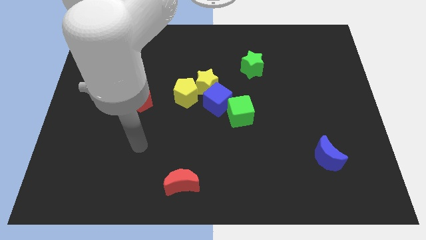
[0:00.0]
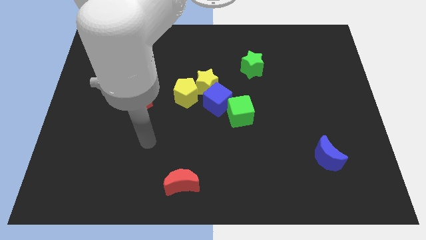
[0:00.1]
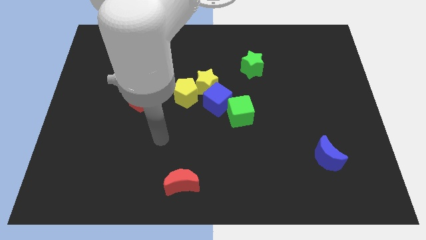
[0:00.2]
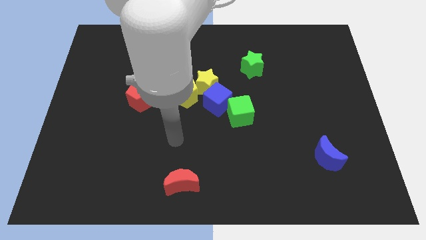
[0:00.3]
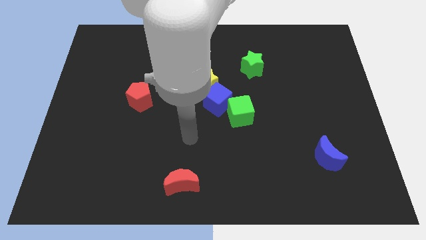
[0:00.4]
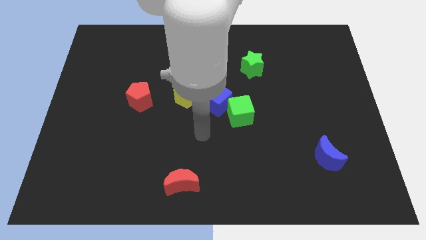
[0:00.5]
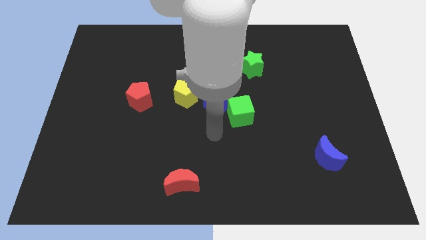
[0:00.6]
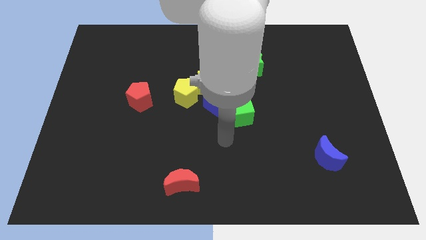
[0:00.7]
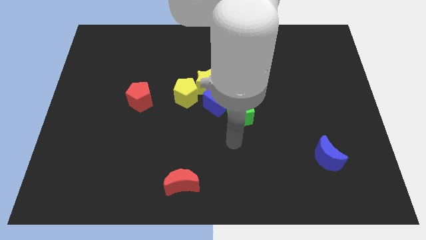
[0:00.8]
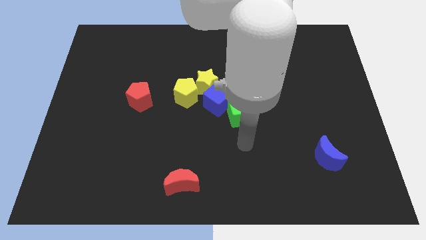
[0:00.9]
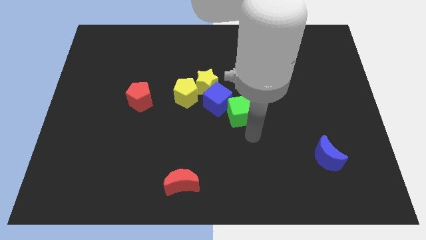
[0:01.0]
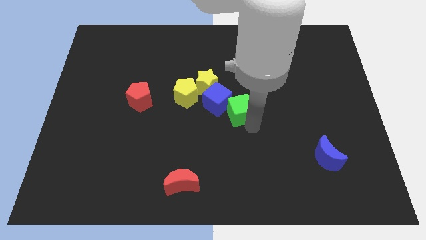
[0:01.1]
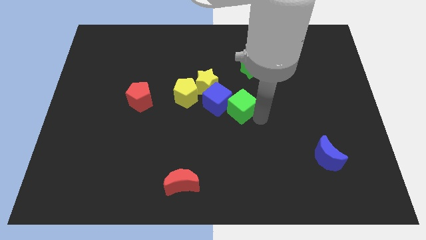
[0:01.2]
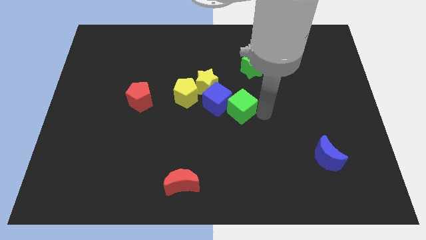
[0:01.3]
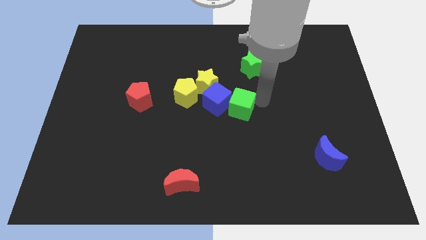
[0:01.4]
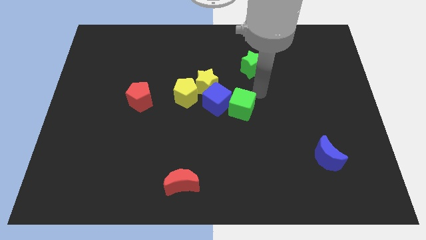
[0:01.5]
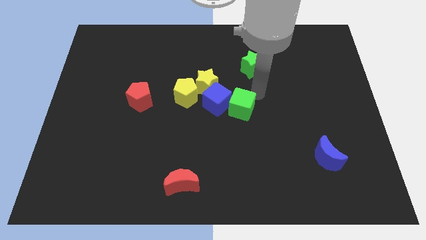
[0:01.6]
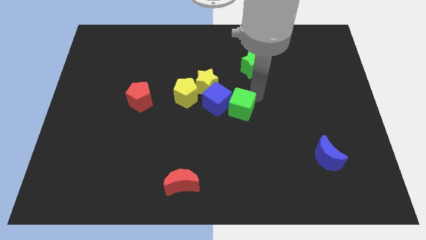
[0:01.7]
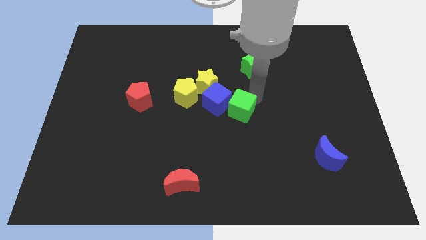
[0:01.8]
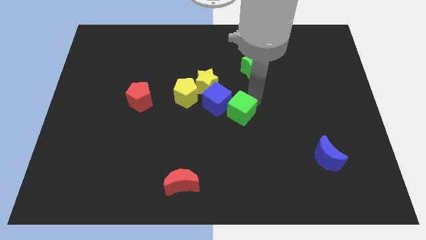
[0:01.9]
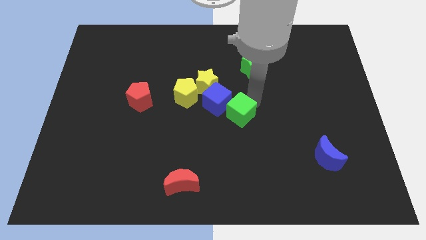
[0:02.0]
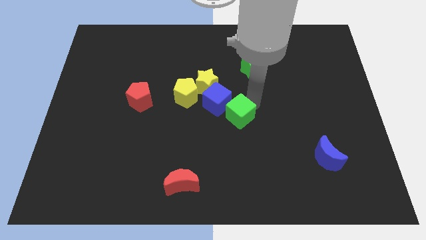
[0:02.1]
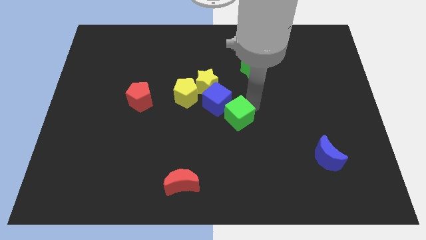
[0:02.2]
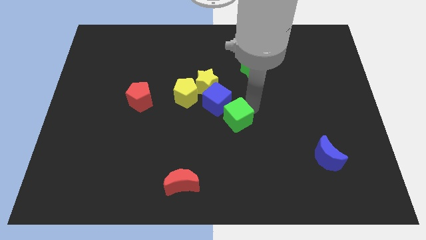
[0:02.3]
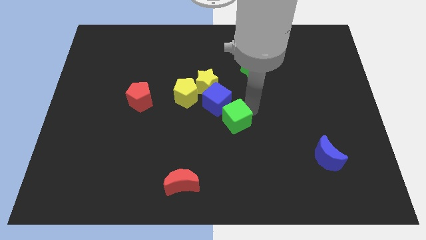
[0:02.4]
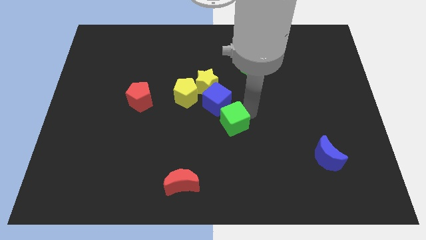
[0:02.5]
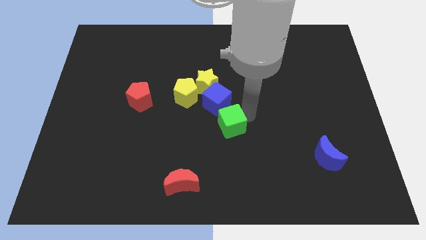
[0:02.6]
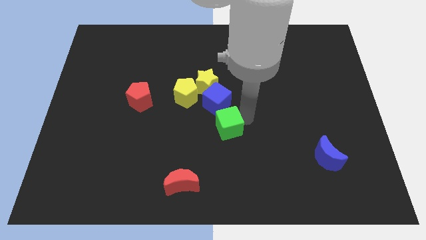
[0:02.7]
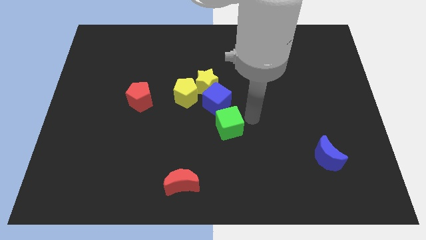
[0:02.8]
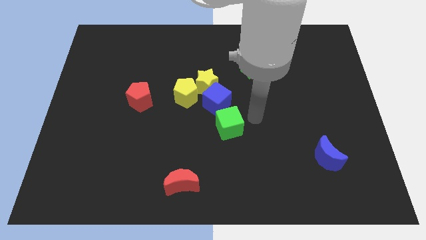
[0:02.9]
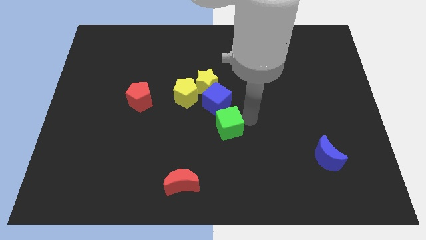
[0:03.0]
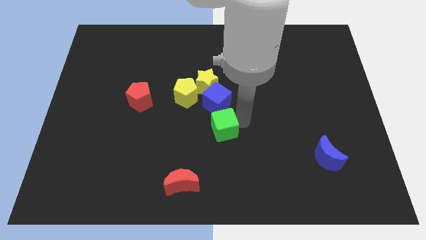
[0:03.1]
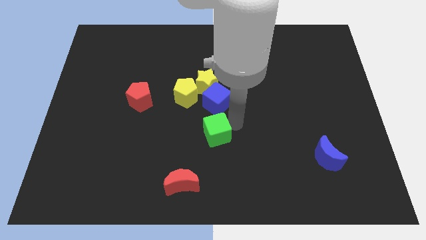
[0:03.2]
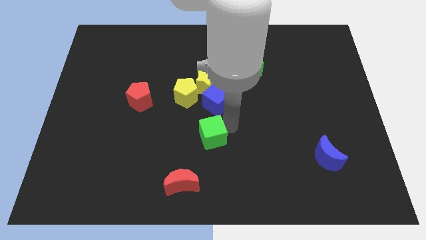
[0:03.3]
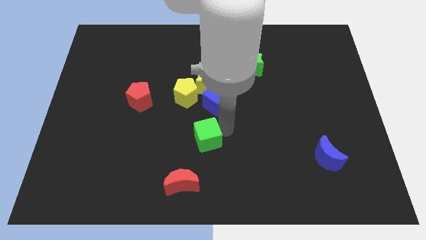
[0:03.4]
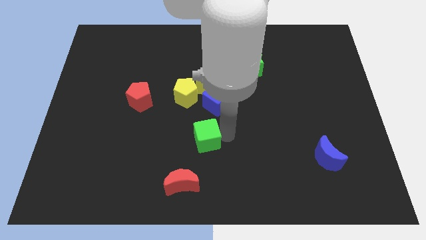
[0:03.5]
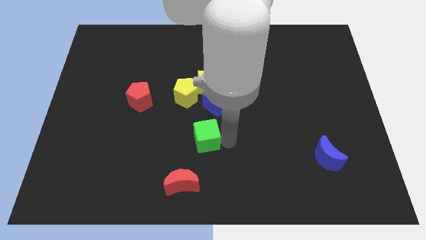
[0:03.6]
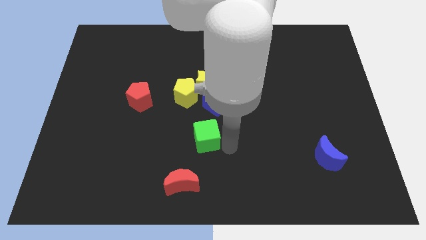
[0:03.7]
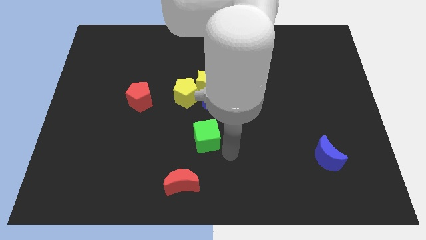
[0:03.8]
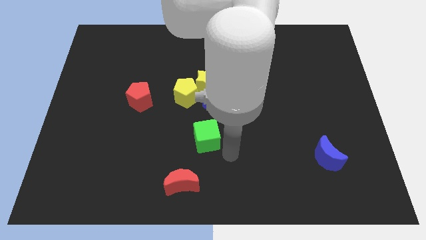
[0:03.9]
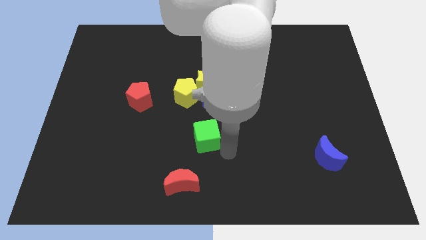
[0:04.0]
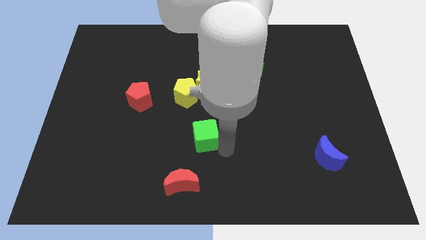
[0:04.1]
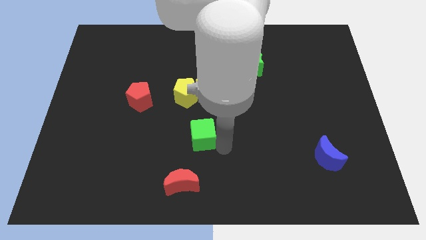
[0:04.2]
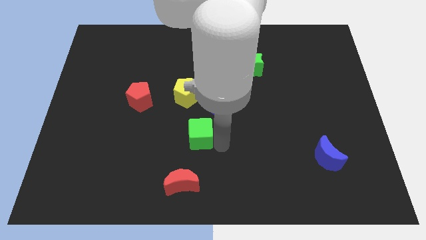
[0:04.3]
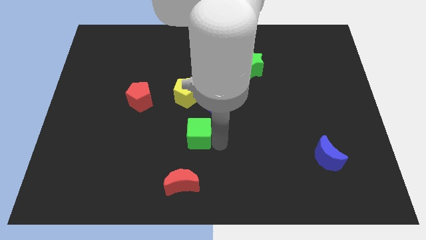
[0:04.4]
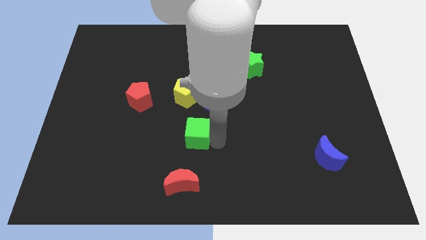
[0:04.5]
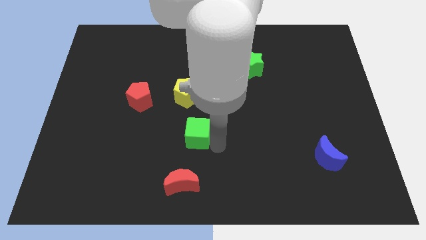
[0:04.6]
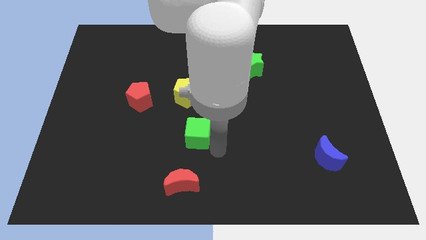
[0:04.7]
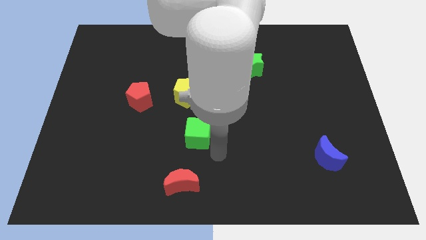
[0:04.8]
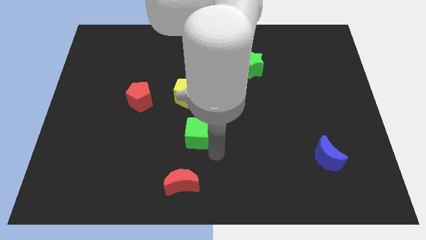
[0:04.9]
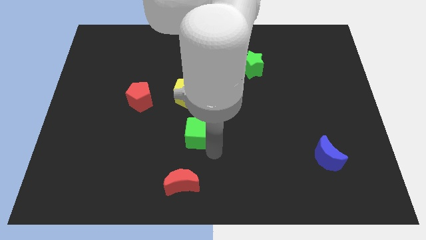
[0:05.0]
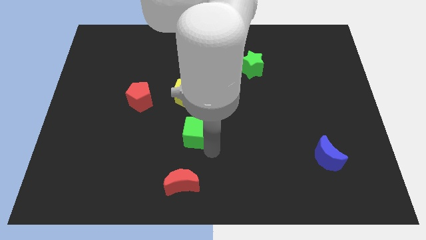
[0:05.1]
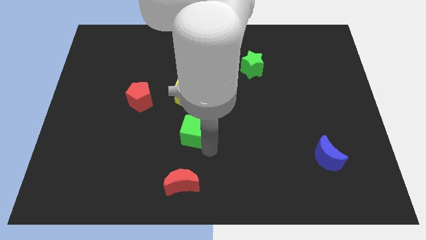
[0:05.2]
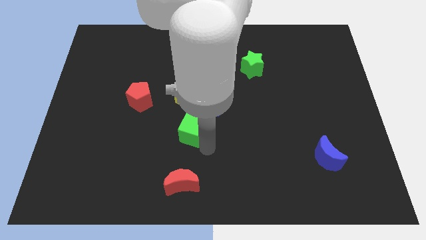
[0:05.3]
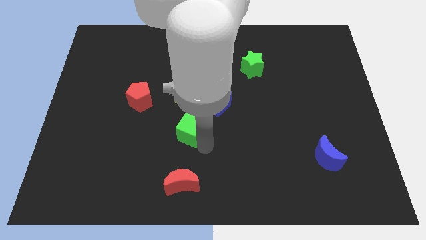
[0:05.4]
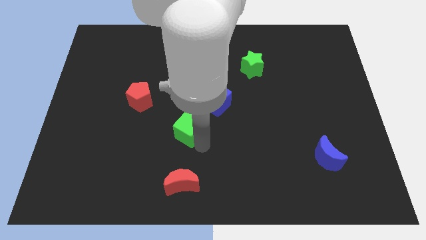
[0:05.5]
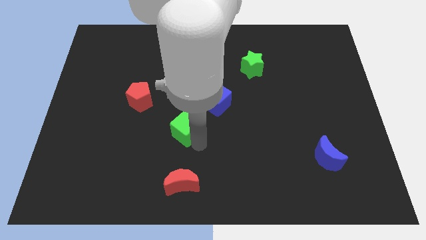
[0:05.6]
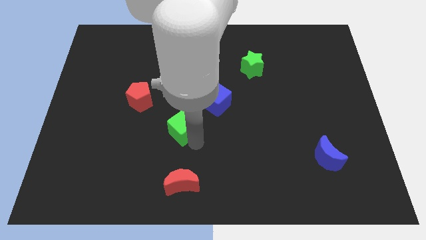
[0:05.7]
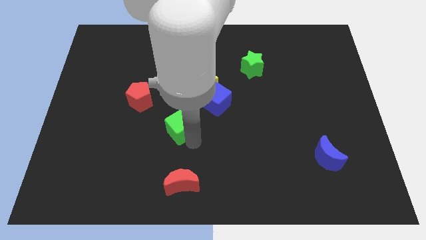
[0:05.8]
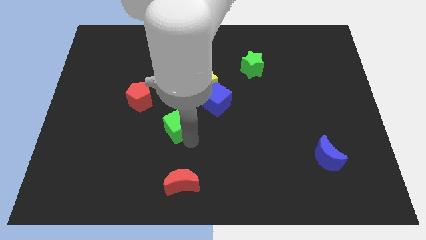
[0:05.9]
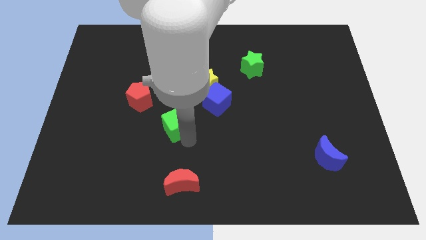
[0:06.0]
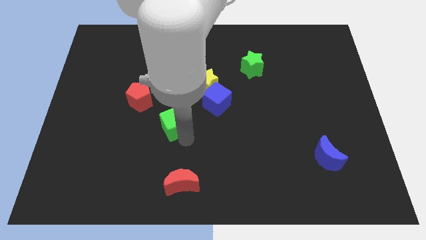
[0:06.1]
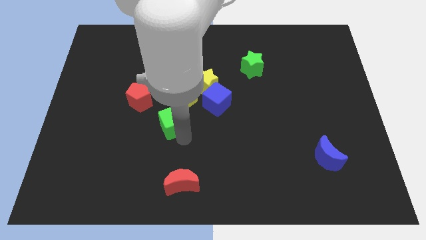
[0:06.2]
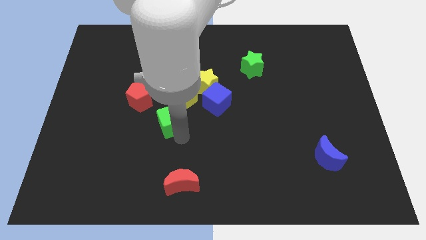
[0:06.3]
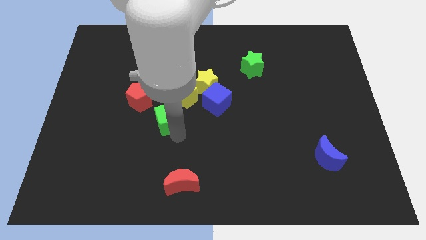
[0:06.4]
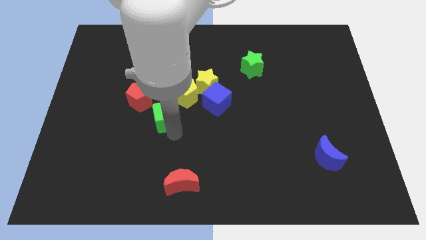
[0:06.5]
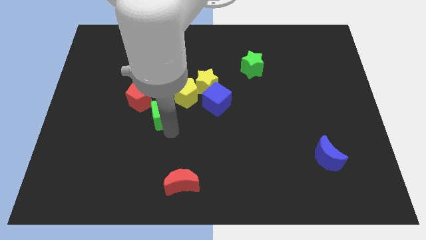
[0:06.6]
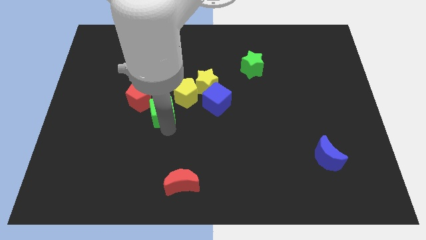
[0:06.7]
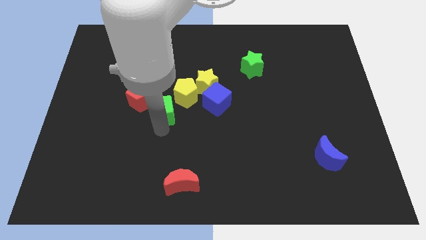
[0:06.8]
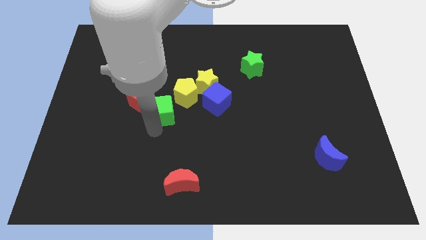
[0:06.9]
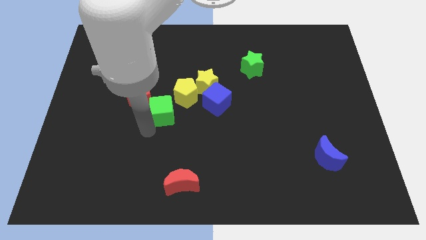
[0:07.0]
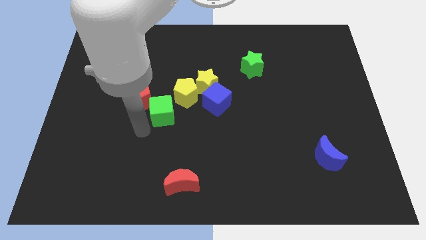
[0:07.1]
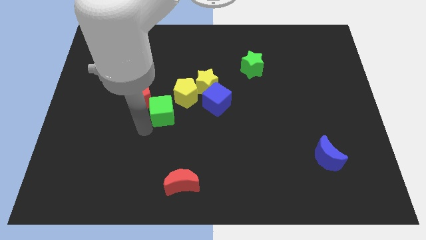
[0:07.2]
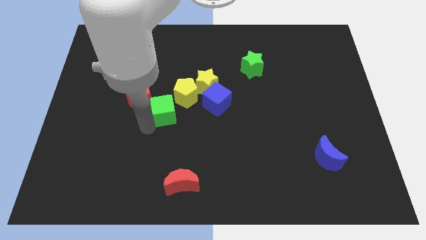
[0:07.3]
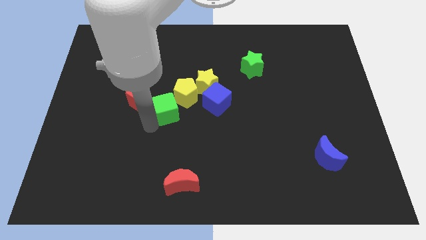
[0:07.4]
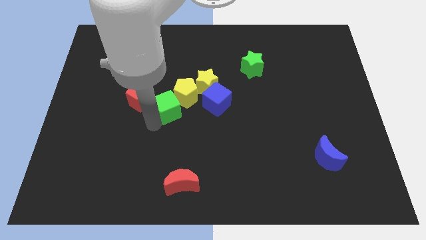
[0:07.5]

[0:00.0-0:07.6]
move the green cube towards the yellow pentagon
